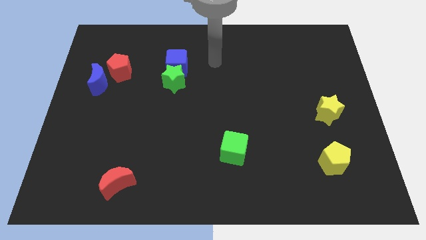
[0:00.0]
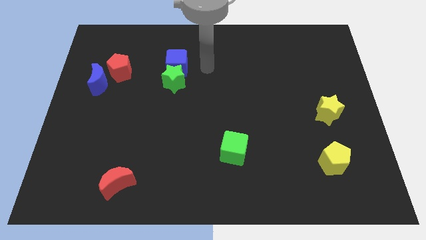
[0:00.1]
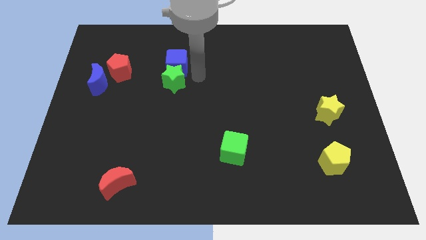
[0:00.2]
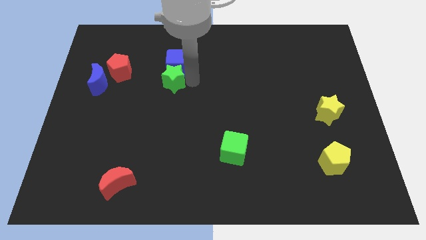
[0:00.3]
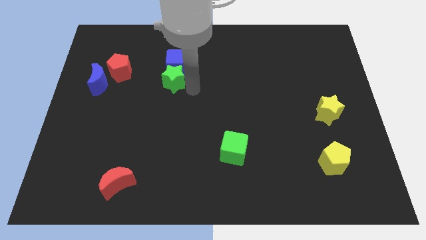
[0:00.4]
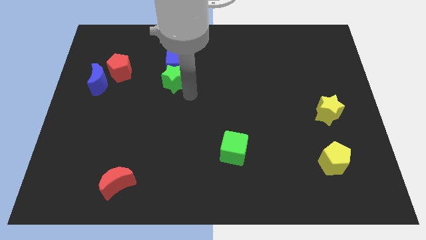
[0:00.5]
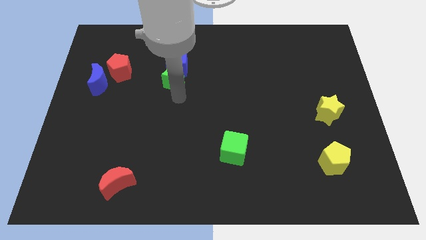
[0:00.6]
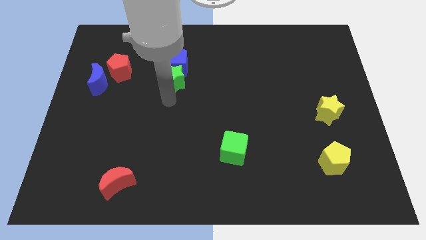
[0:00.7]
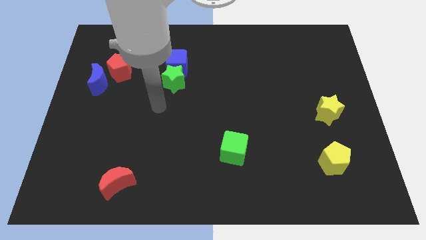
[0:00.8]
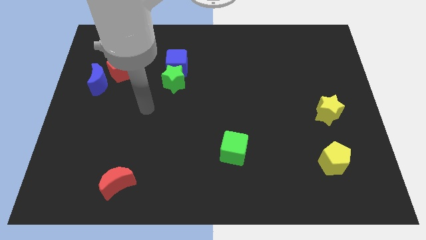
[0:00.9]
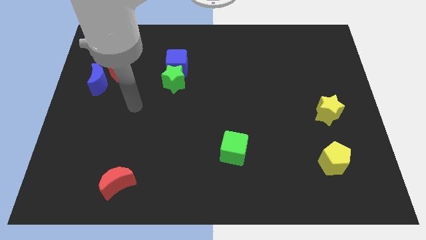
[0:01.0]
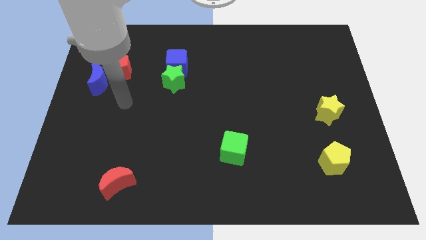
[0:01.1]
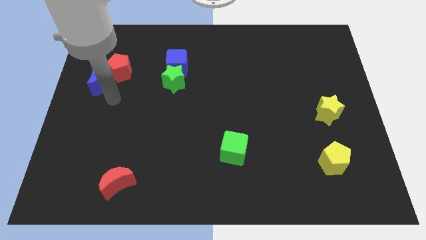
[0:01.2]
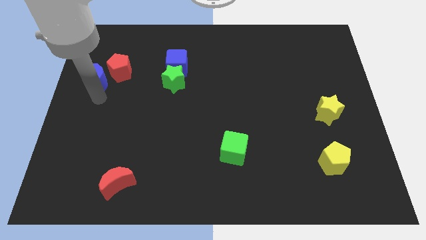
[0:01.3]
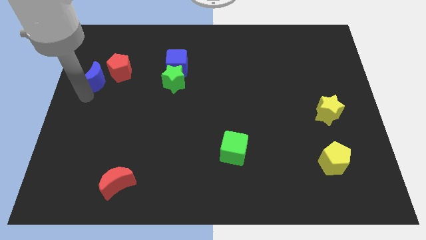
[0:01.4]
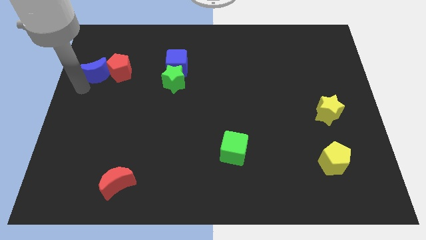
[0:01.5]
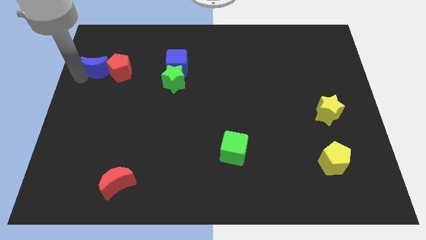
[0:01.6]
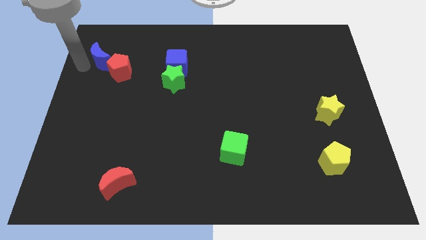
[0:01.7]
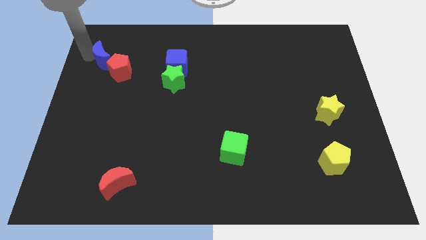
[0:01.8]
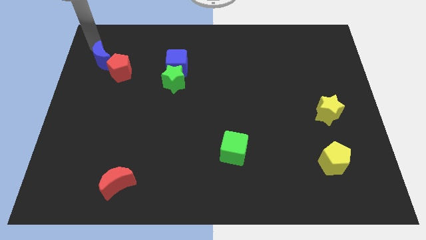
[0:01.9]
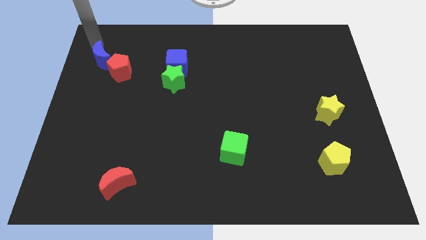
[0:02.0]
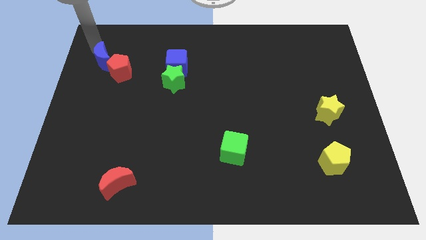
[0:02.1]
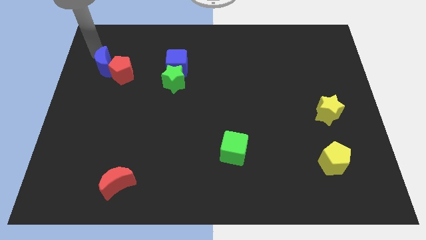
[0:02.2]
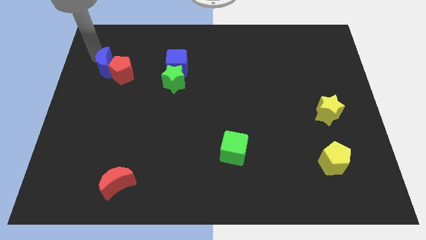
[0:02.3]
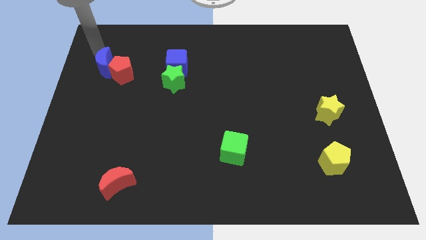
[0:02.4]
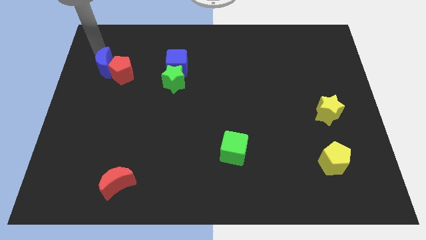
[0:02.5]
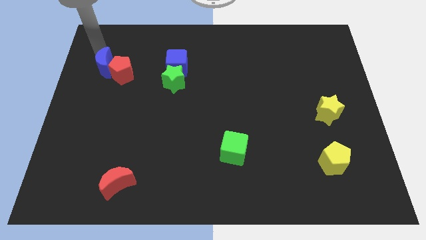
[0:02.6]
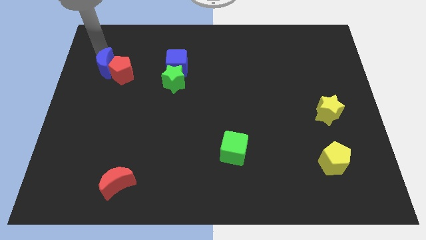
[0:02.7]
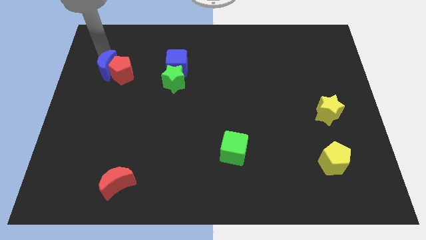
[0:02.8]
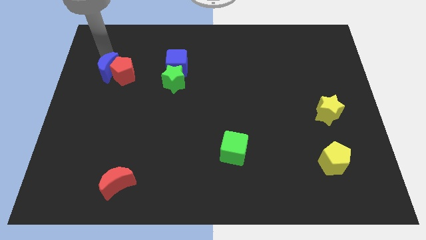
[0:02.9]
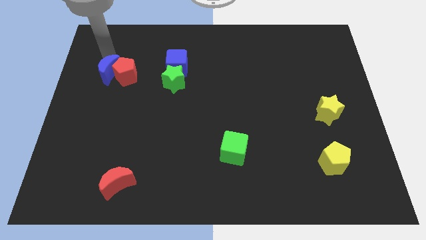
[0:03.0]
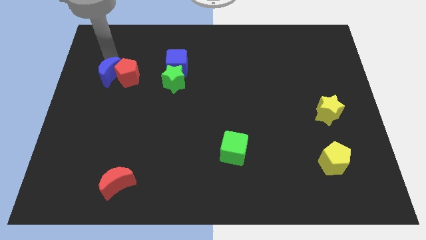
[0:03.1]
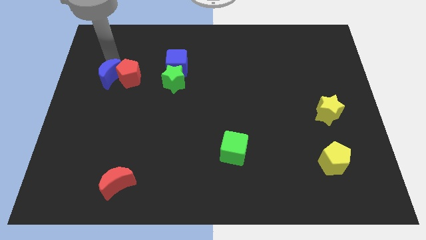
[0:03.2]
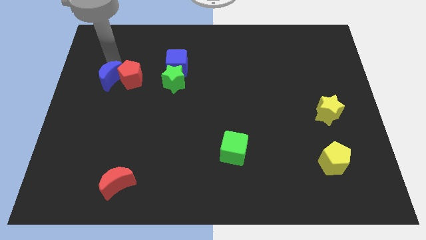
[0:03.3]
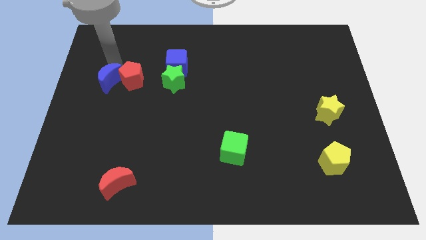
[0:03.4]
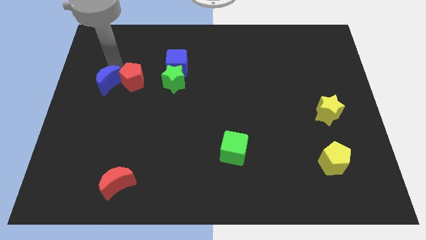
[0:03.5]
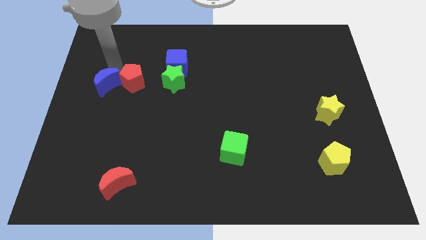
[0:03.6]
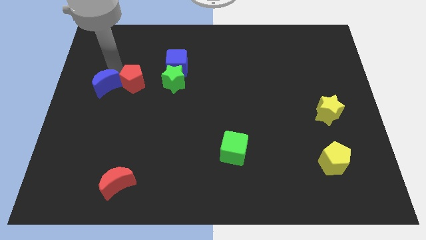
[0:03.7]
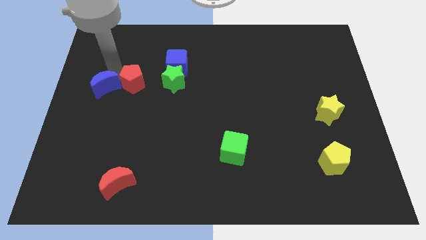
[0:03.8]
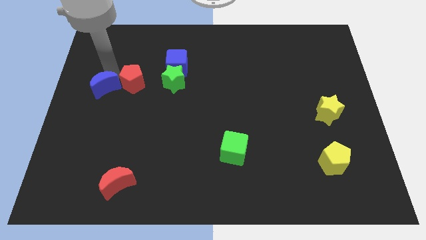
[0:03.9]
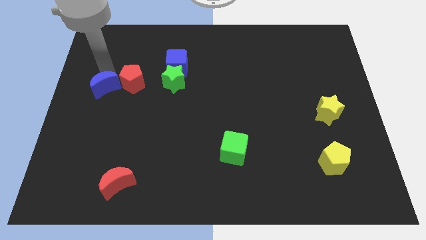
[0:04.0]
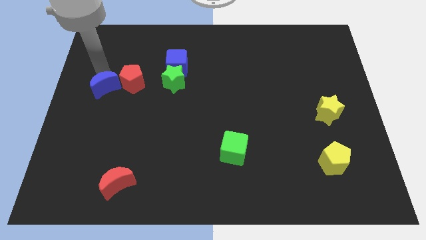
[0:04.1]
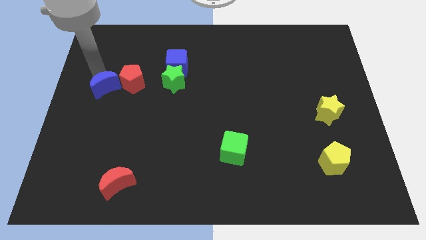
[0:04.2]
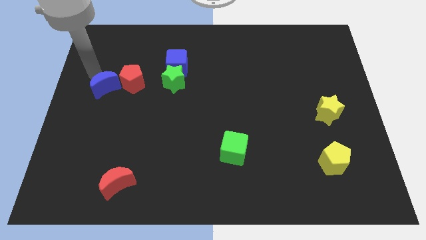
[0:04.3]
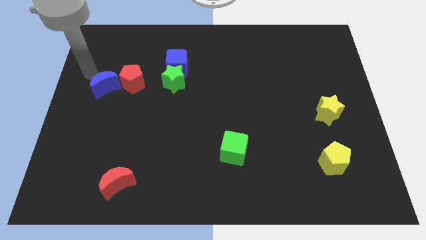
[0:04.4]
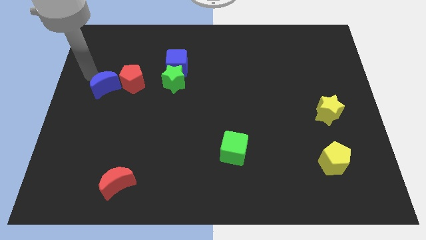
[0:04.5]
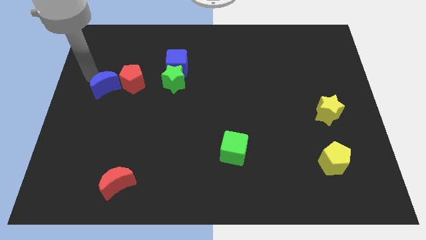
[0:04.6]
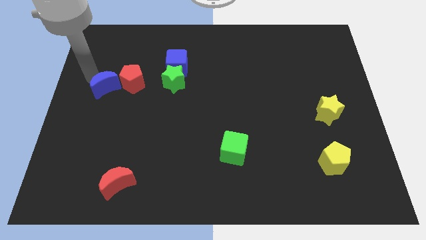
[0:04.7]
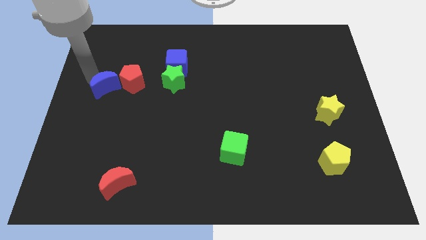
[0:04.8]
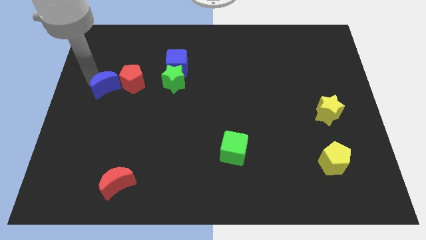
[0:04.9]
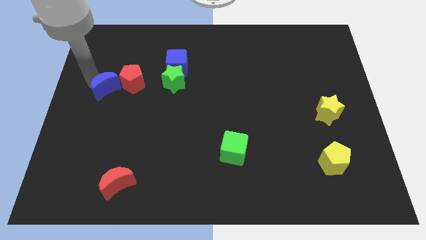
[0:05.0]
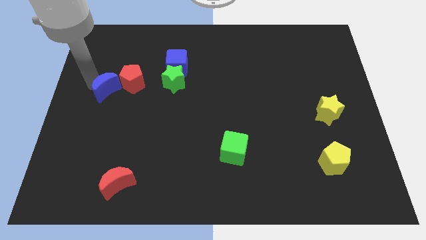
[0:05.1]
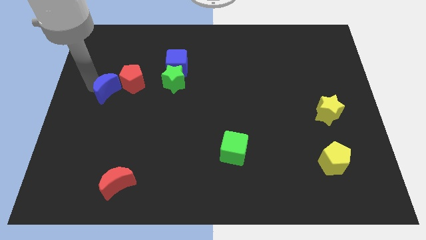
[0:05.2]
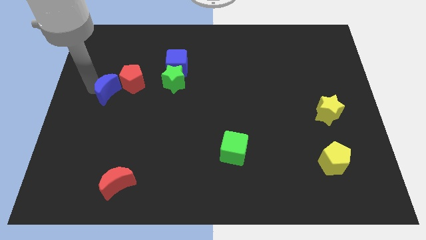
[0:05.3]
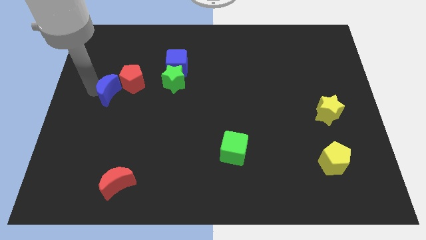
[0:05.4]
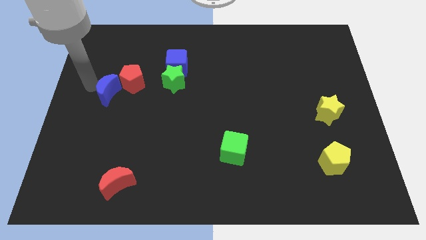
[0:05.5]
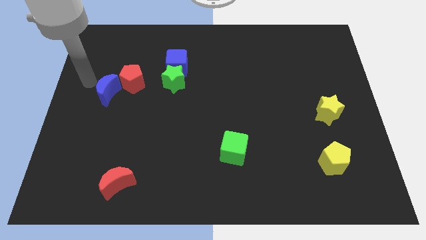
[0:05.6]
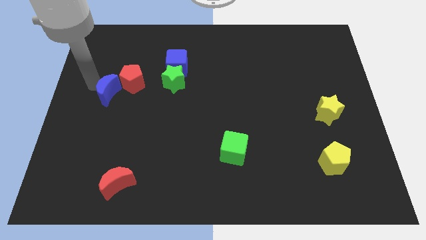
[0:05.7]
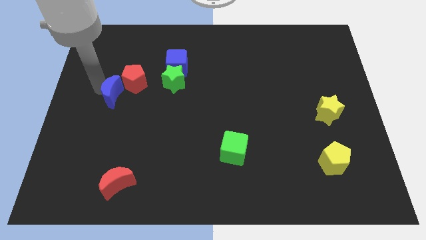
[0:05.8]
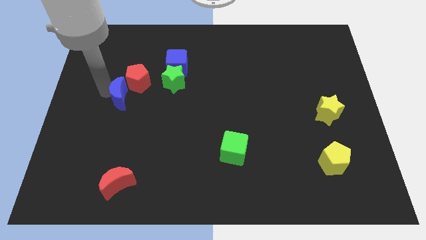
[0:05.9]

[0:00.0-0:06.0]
move the blue moon diagonally down and to the right a bit

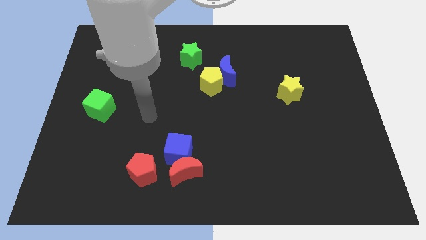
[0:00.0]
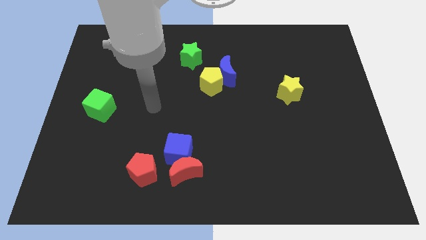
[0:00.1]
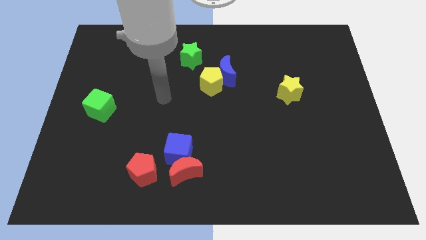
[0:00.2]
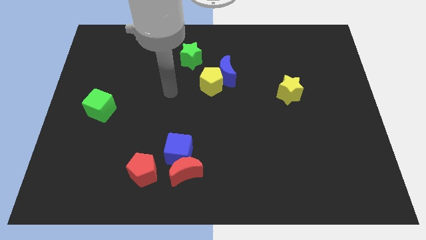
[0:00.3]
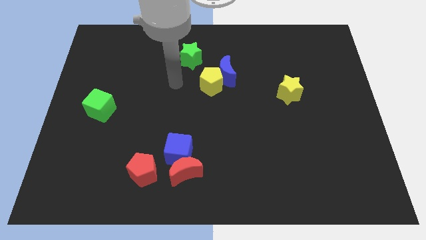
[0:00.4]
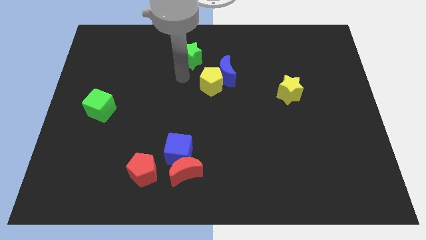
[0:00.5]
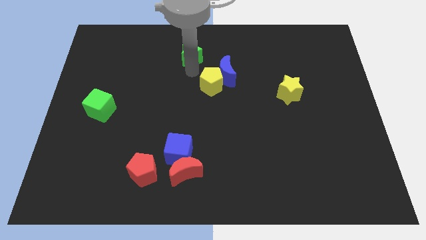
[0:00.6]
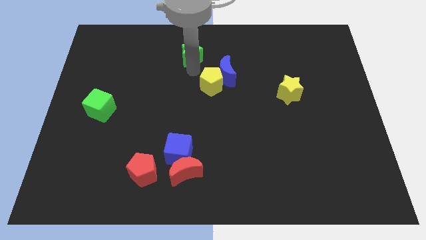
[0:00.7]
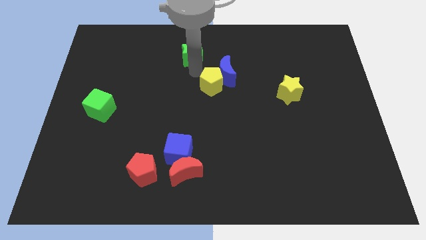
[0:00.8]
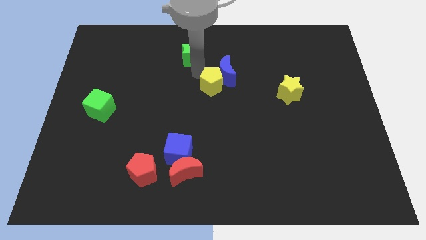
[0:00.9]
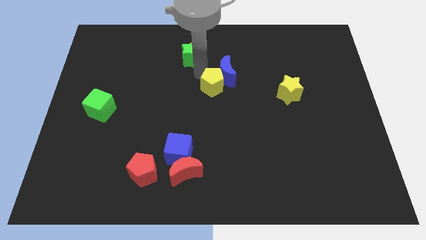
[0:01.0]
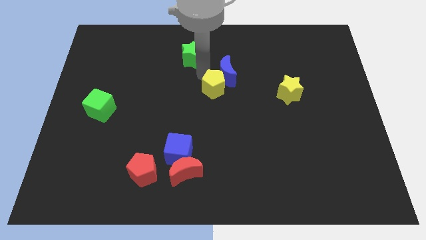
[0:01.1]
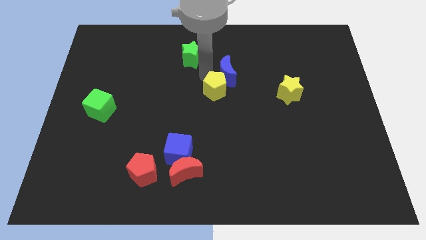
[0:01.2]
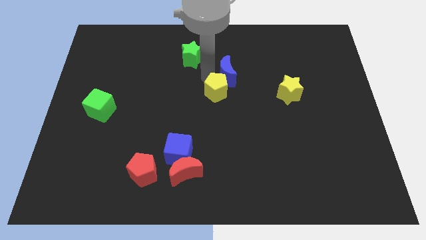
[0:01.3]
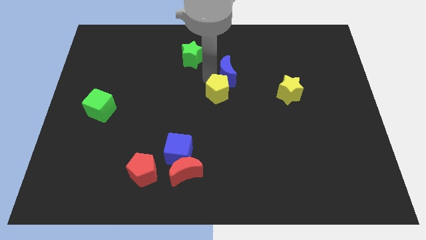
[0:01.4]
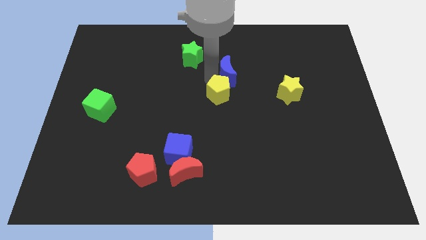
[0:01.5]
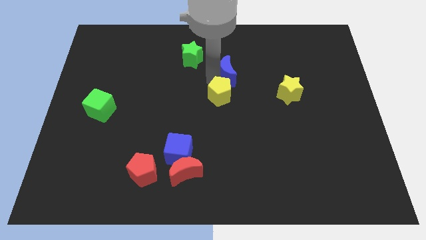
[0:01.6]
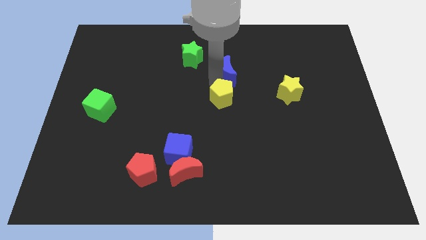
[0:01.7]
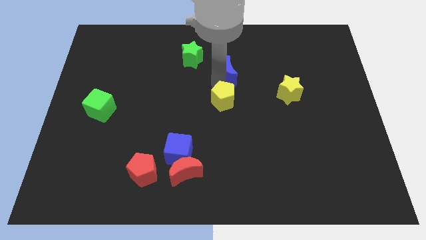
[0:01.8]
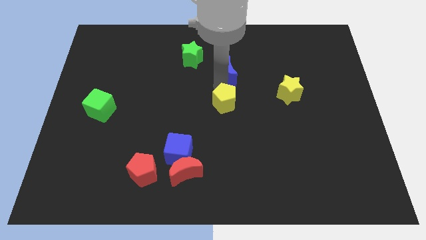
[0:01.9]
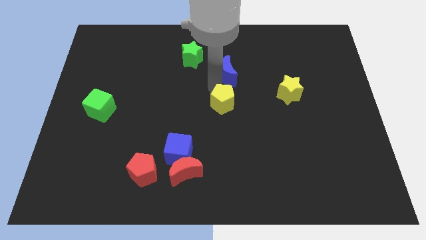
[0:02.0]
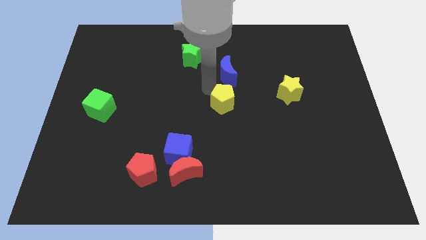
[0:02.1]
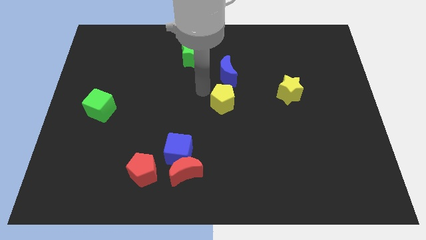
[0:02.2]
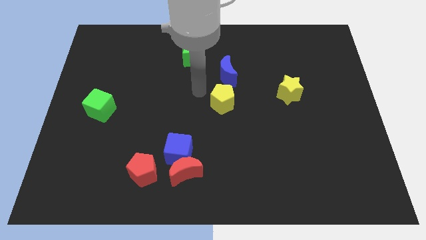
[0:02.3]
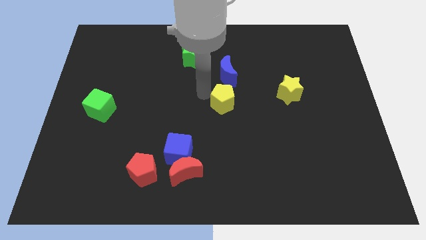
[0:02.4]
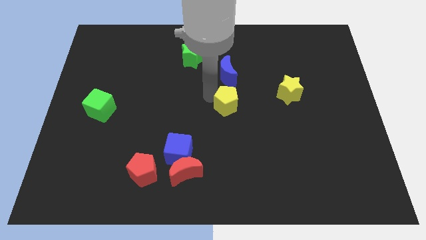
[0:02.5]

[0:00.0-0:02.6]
slightly move the yellow pentagon down and right
